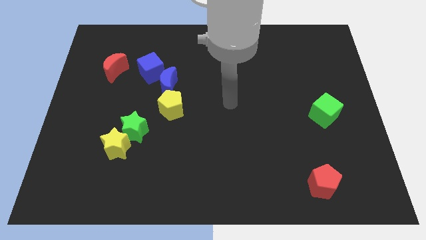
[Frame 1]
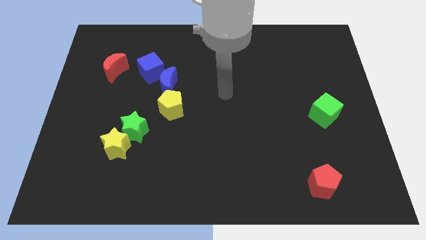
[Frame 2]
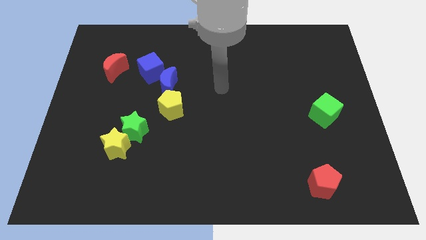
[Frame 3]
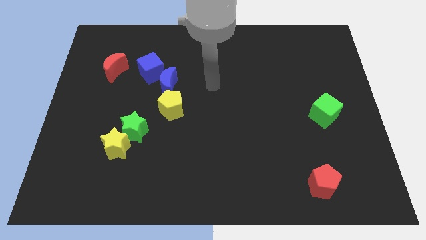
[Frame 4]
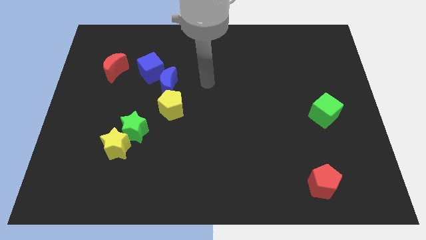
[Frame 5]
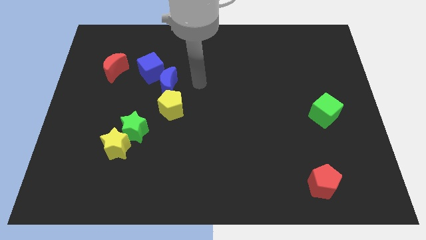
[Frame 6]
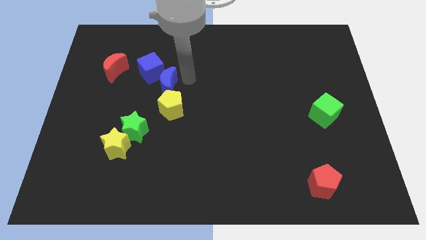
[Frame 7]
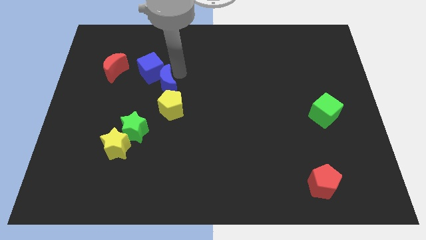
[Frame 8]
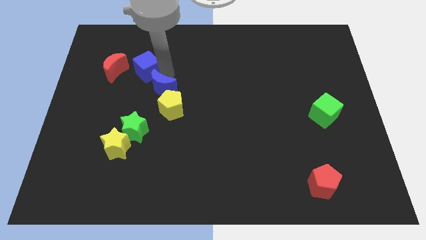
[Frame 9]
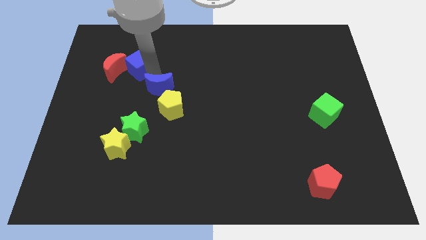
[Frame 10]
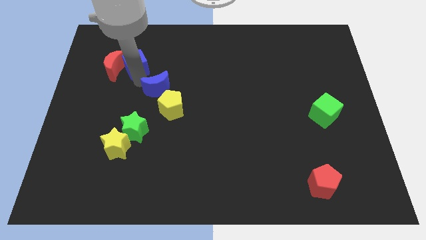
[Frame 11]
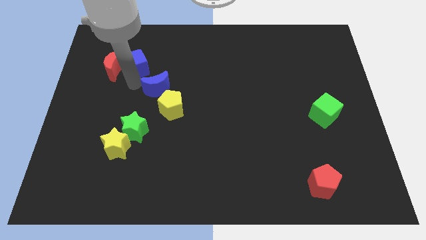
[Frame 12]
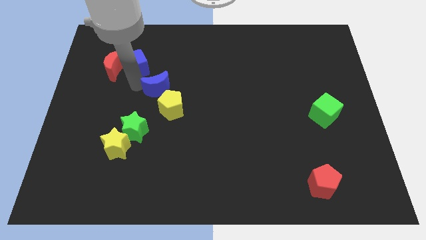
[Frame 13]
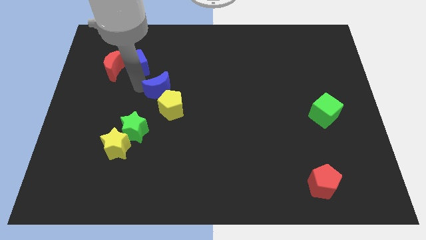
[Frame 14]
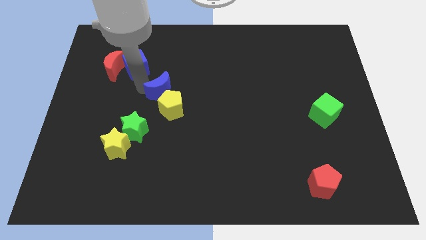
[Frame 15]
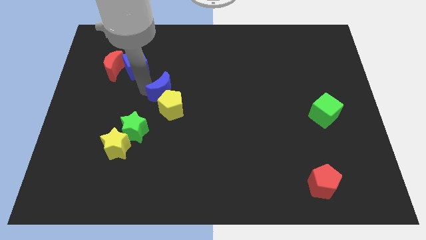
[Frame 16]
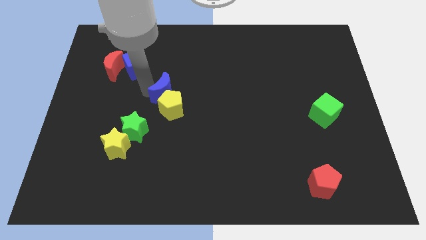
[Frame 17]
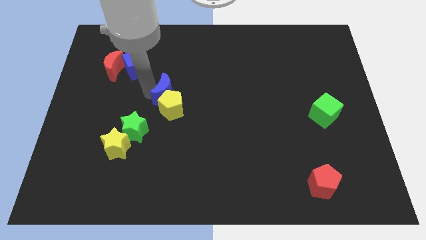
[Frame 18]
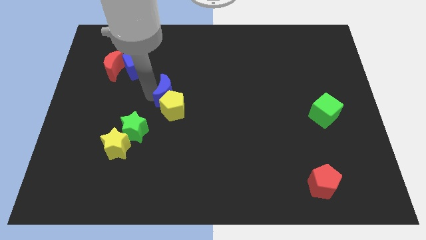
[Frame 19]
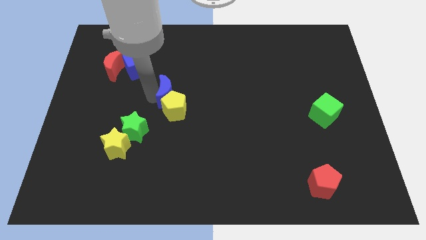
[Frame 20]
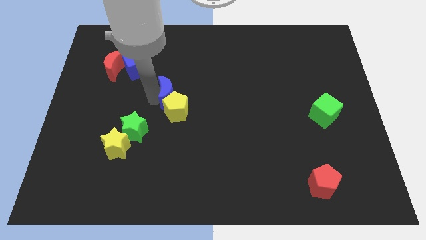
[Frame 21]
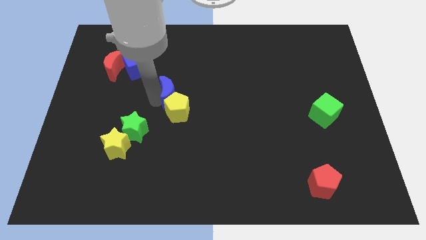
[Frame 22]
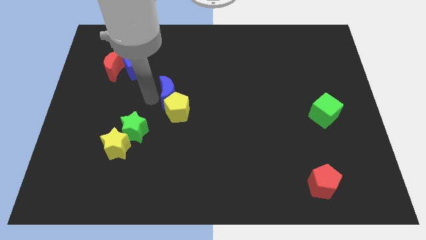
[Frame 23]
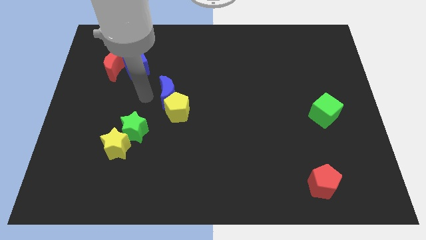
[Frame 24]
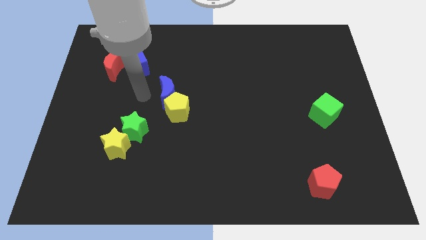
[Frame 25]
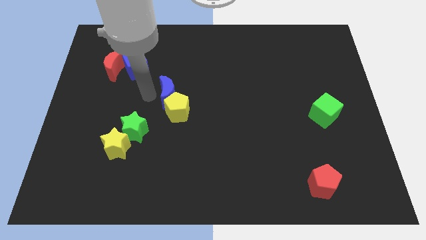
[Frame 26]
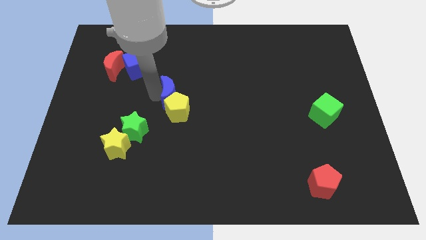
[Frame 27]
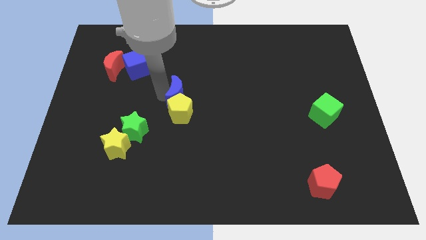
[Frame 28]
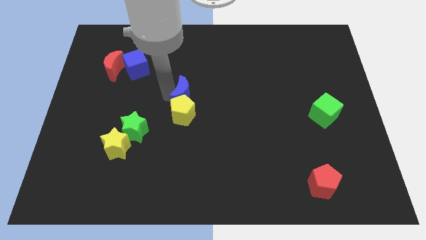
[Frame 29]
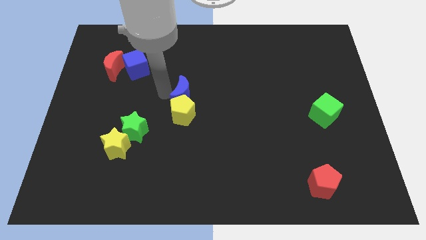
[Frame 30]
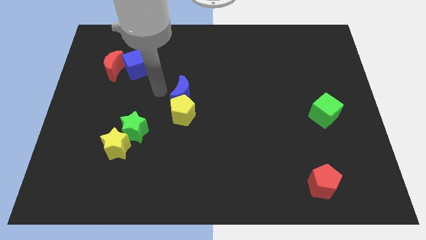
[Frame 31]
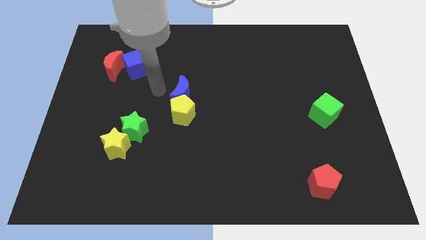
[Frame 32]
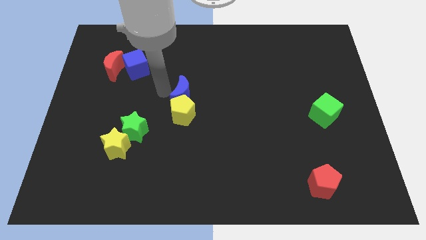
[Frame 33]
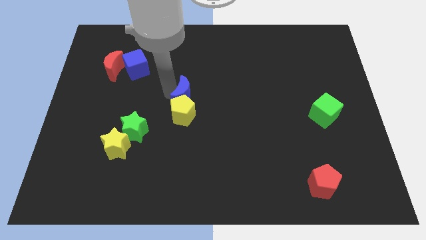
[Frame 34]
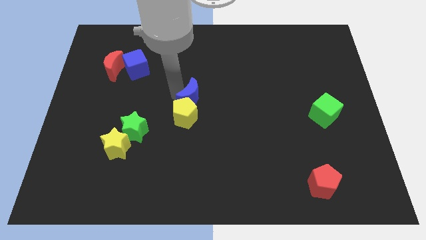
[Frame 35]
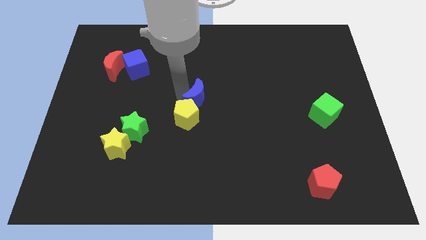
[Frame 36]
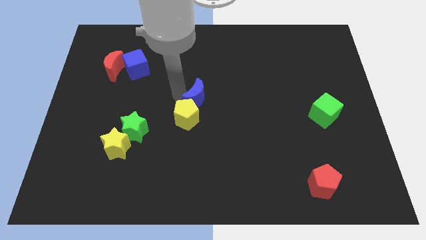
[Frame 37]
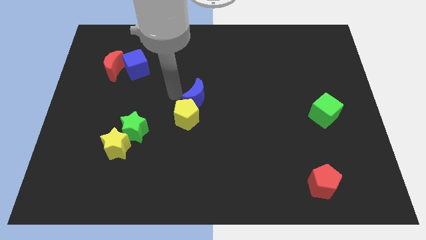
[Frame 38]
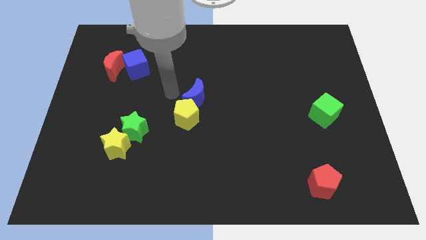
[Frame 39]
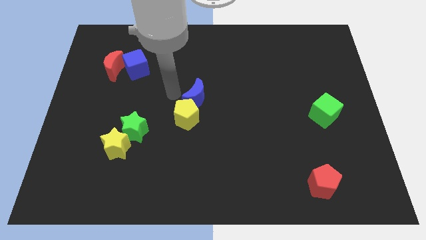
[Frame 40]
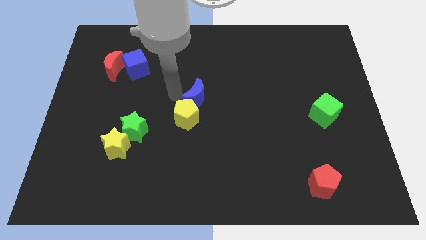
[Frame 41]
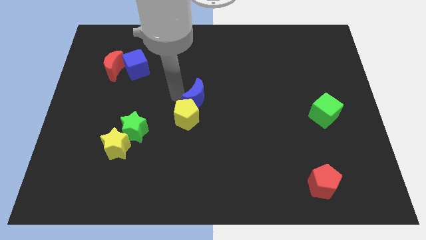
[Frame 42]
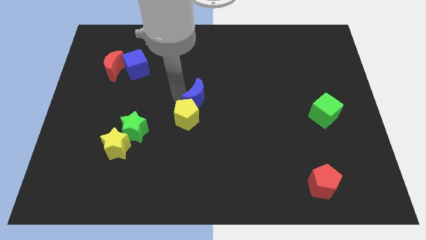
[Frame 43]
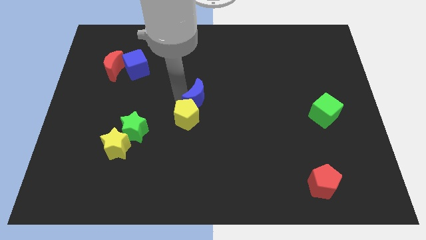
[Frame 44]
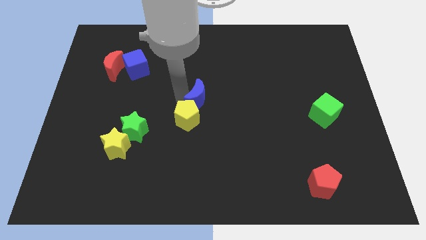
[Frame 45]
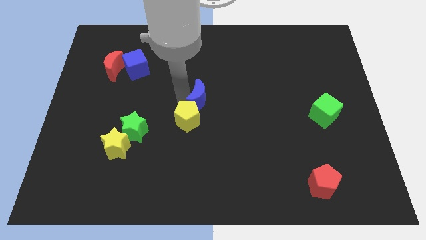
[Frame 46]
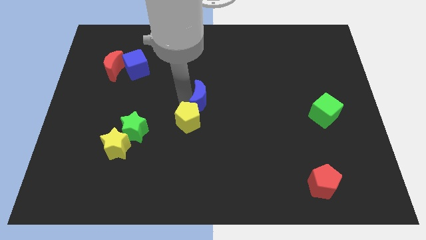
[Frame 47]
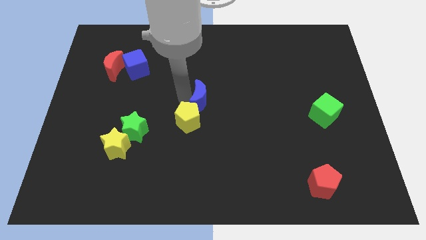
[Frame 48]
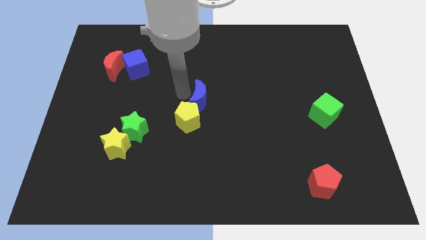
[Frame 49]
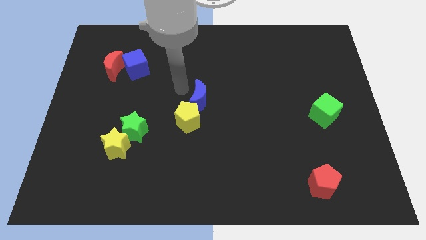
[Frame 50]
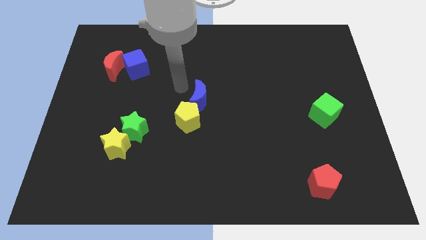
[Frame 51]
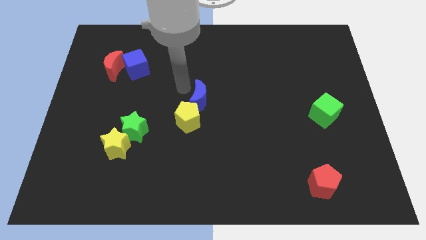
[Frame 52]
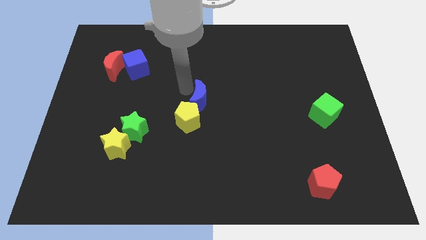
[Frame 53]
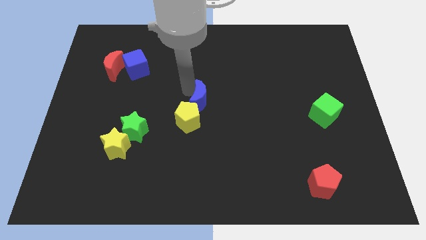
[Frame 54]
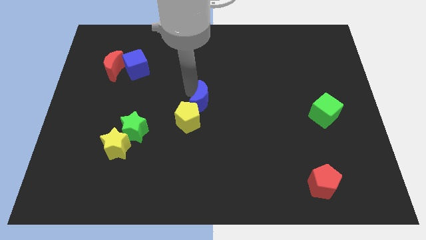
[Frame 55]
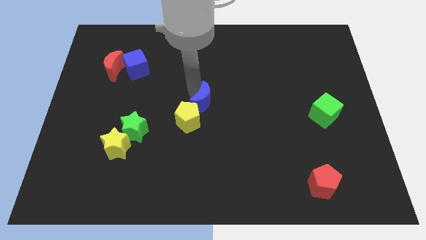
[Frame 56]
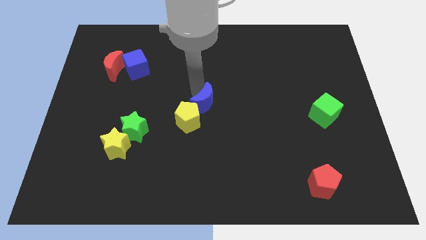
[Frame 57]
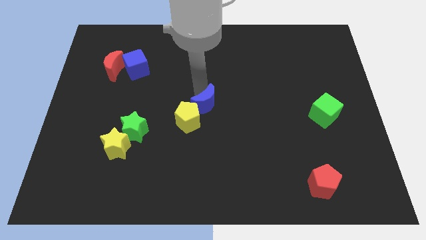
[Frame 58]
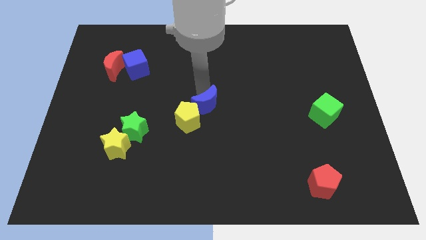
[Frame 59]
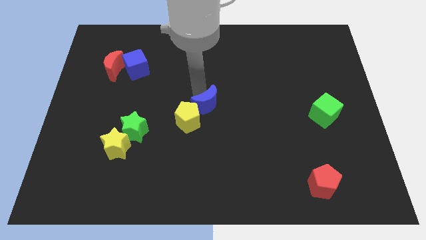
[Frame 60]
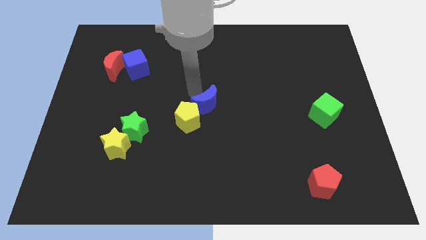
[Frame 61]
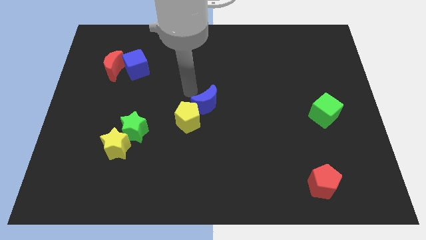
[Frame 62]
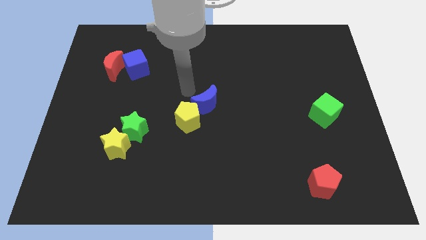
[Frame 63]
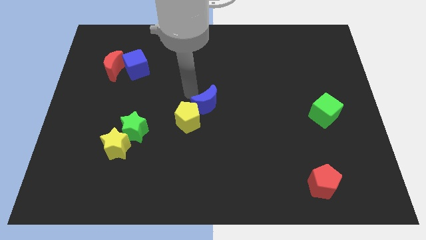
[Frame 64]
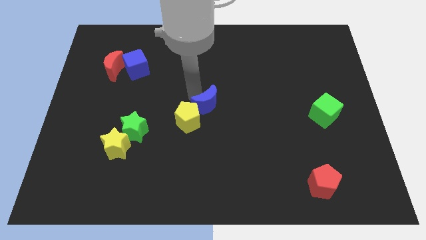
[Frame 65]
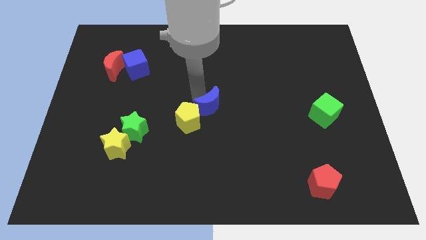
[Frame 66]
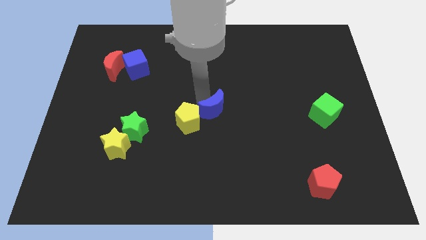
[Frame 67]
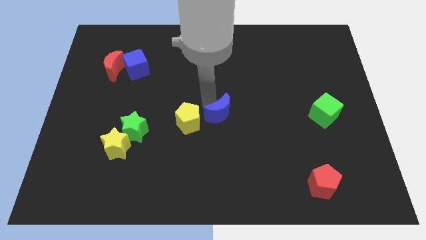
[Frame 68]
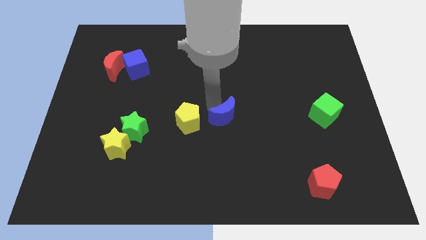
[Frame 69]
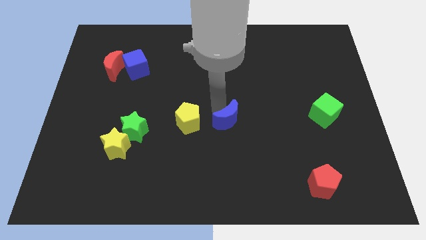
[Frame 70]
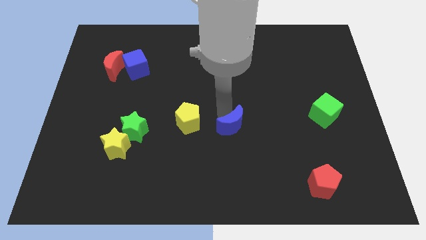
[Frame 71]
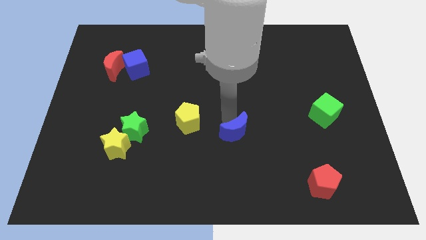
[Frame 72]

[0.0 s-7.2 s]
slide the blue moon diagonally down and to the right

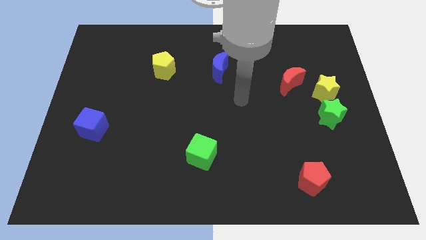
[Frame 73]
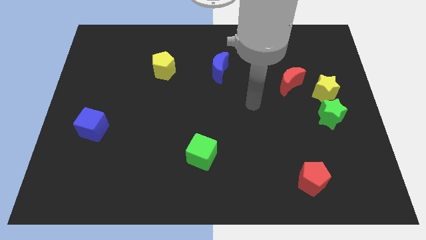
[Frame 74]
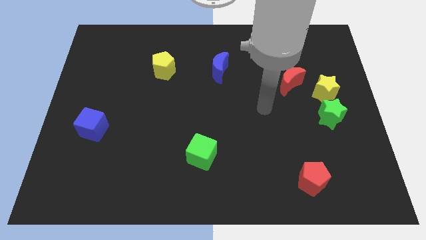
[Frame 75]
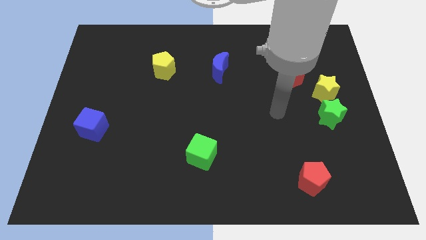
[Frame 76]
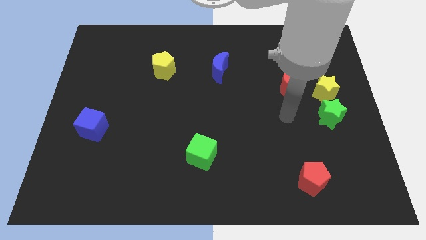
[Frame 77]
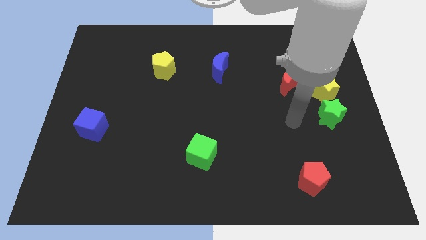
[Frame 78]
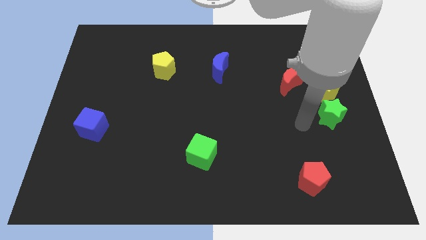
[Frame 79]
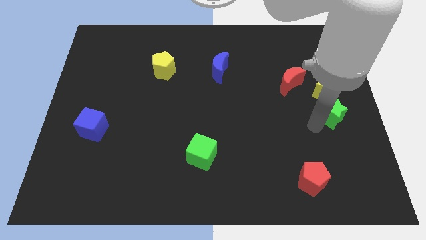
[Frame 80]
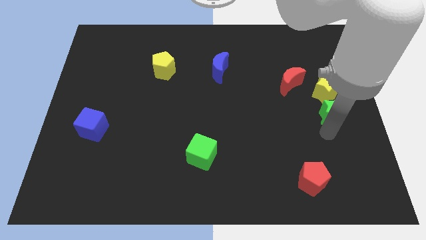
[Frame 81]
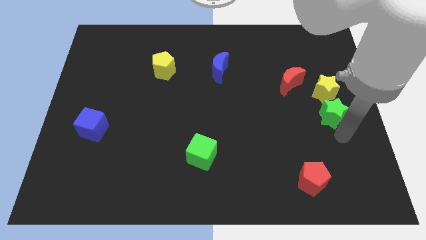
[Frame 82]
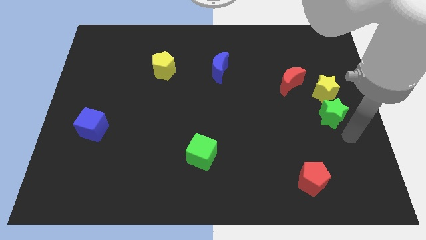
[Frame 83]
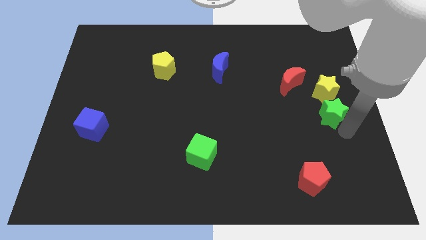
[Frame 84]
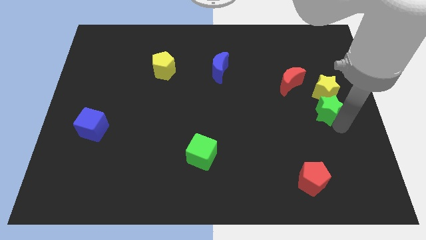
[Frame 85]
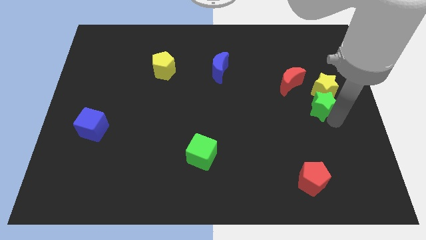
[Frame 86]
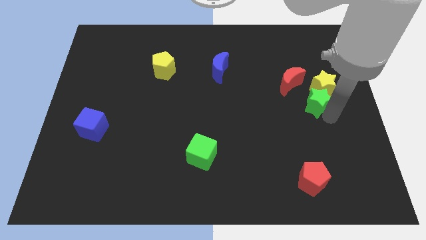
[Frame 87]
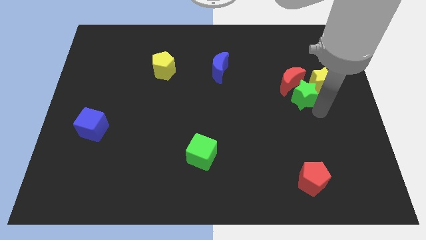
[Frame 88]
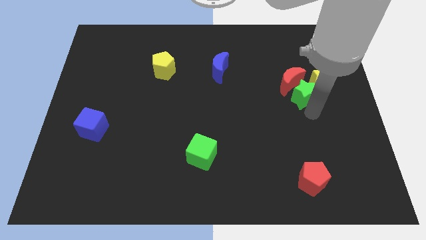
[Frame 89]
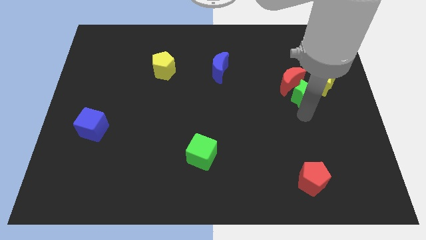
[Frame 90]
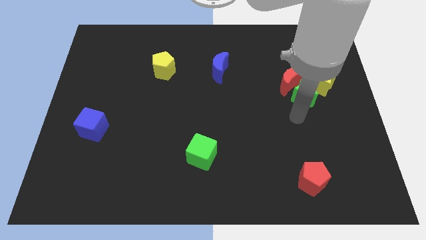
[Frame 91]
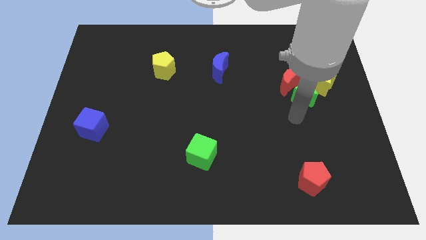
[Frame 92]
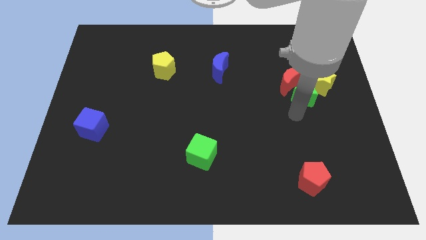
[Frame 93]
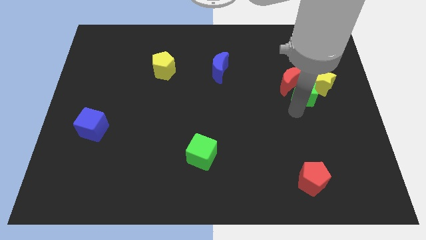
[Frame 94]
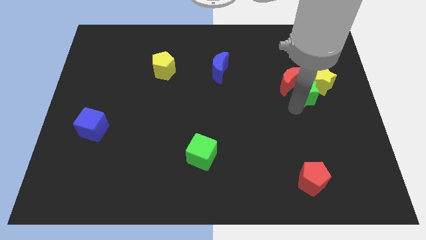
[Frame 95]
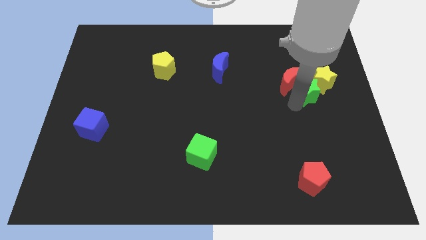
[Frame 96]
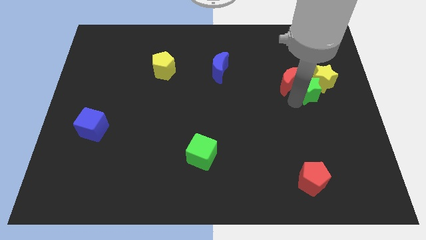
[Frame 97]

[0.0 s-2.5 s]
slide the green star a bit upwards
